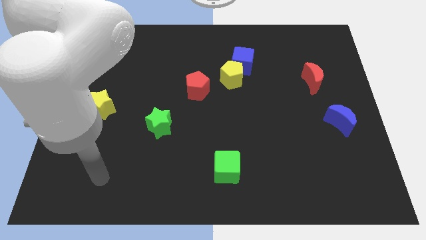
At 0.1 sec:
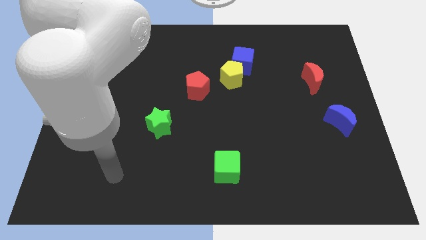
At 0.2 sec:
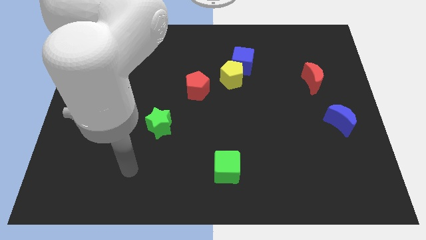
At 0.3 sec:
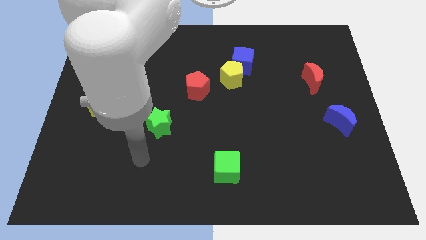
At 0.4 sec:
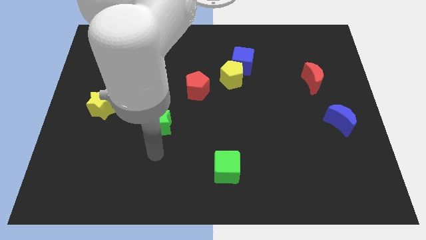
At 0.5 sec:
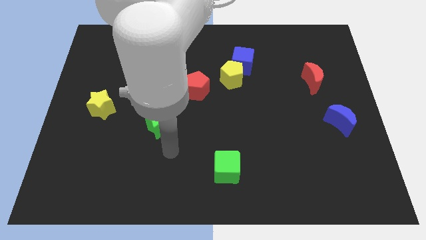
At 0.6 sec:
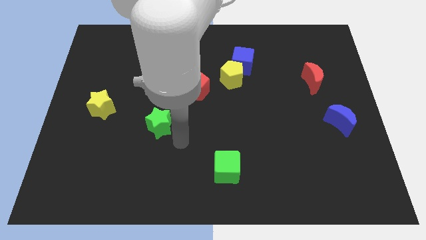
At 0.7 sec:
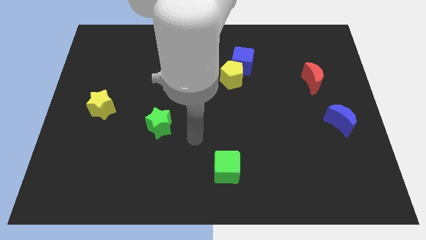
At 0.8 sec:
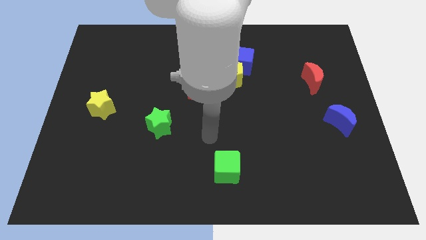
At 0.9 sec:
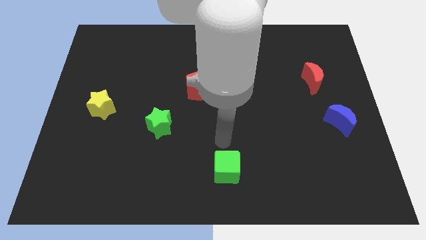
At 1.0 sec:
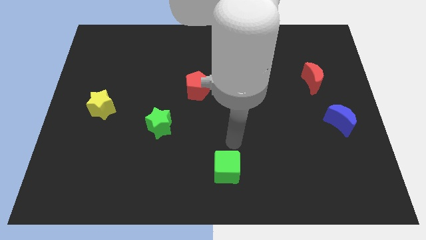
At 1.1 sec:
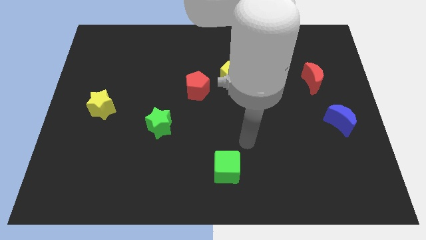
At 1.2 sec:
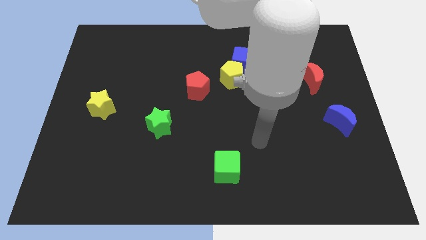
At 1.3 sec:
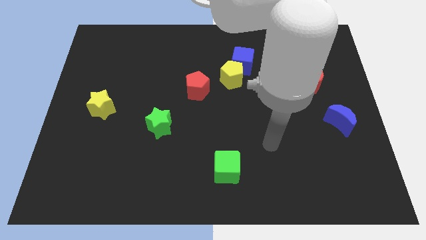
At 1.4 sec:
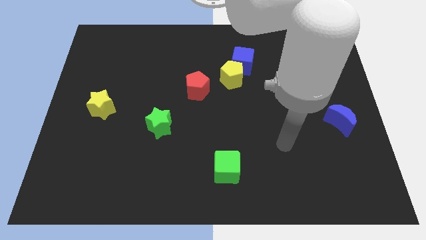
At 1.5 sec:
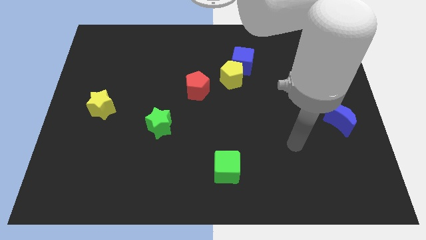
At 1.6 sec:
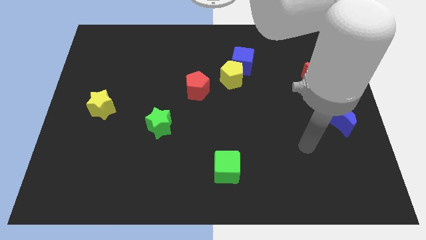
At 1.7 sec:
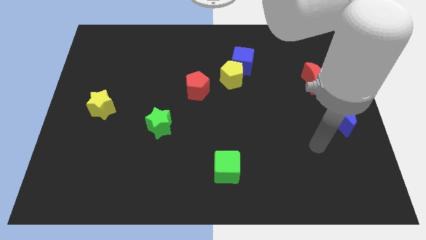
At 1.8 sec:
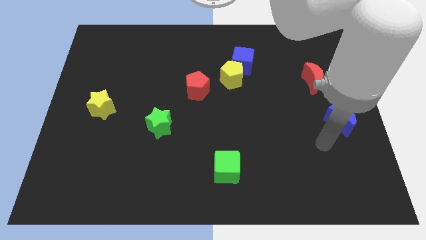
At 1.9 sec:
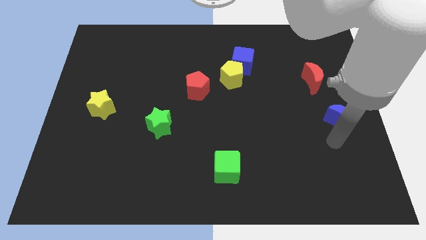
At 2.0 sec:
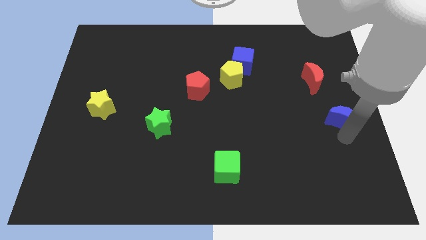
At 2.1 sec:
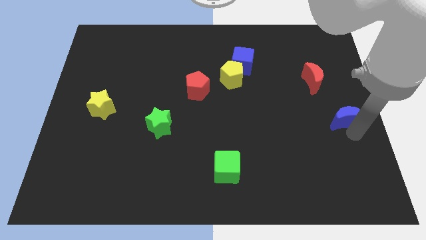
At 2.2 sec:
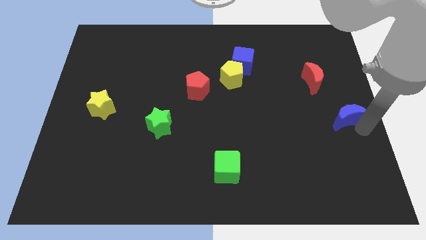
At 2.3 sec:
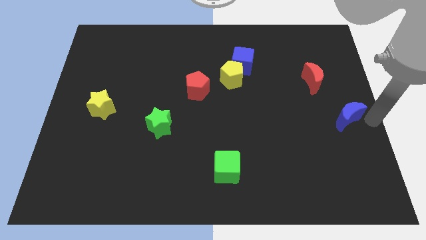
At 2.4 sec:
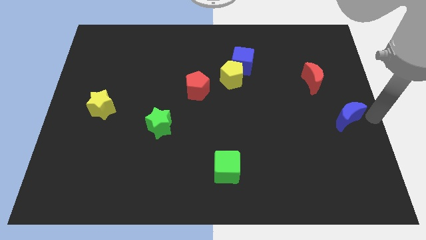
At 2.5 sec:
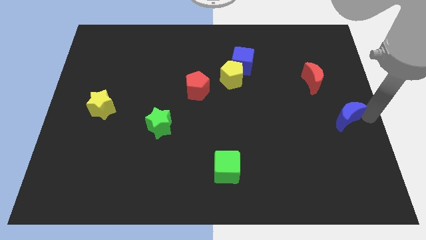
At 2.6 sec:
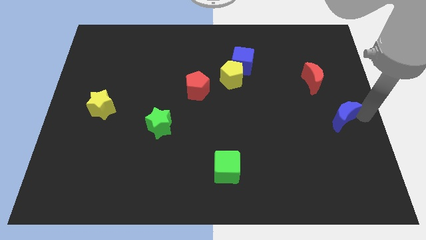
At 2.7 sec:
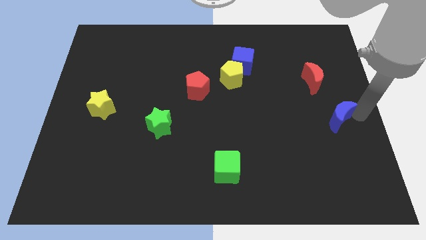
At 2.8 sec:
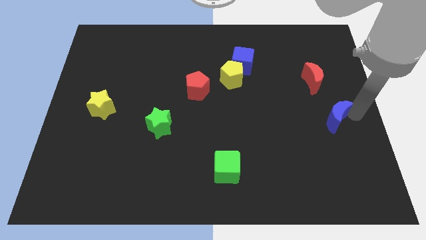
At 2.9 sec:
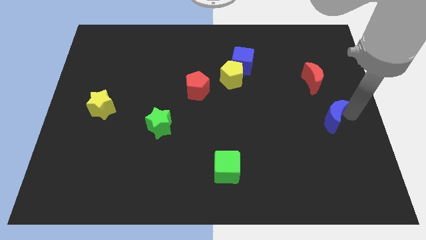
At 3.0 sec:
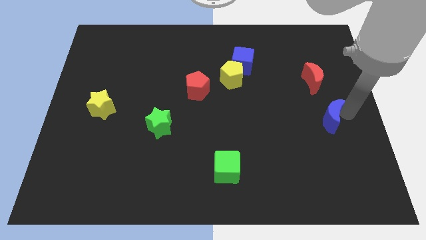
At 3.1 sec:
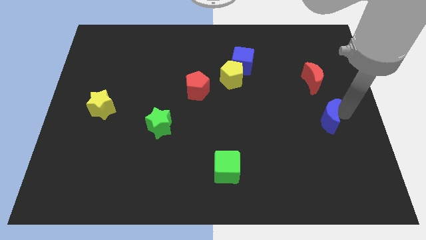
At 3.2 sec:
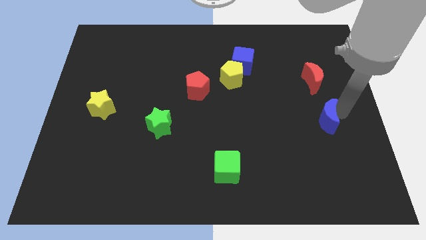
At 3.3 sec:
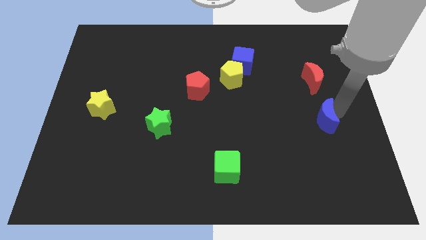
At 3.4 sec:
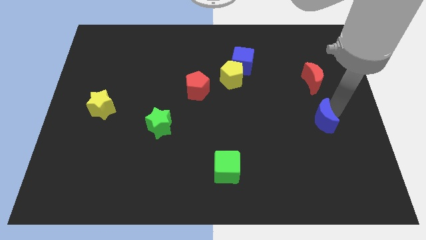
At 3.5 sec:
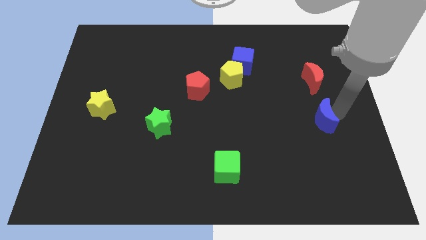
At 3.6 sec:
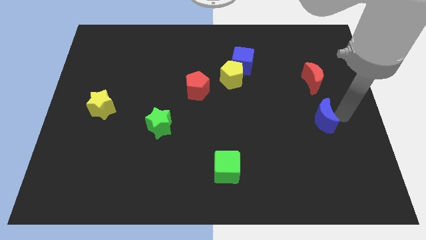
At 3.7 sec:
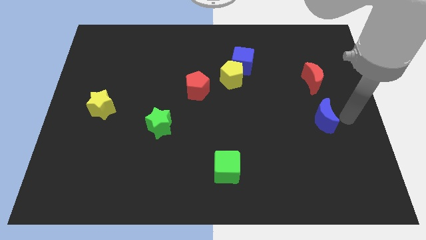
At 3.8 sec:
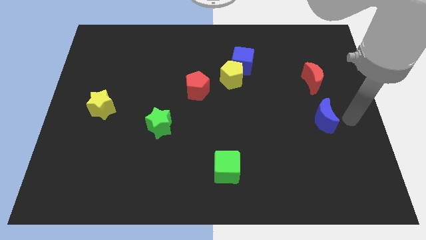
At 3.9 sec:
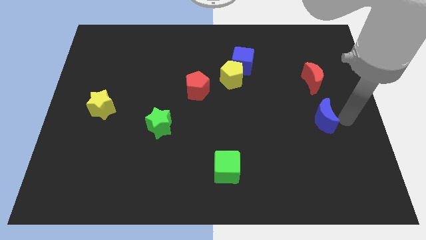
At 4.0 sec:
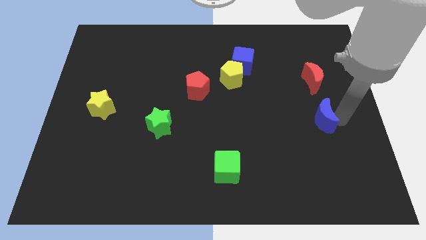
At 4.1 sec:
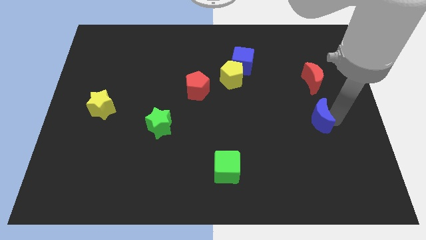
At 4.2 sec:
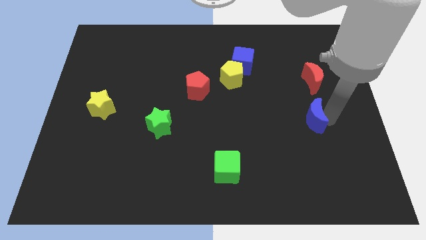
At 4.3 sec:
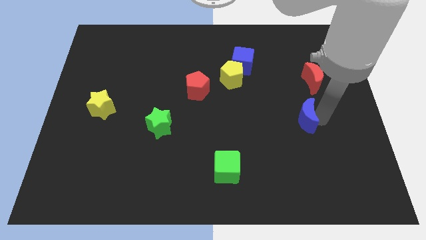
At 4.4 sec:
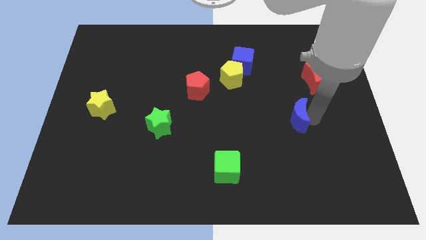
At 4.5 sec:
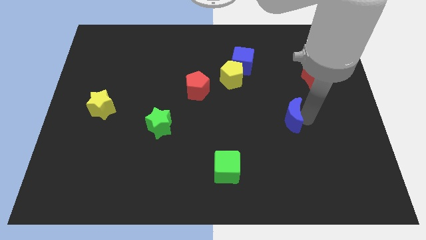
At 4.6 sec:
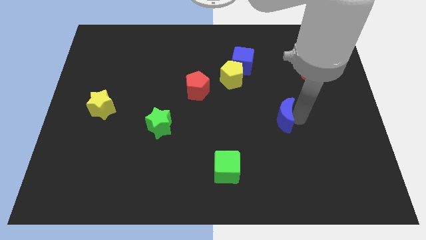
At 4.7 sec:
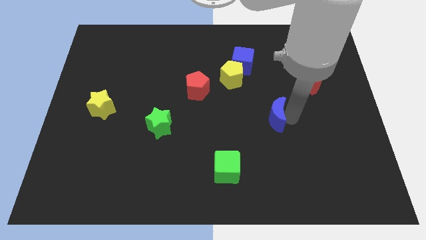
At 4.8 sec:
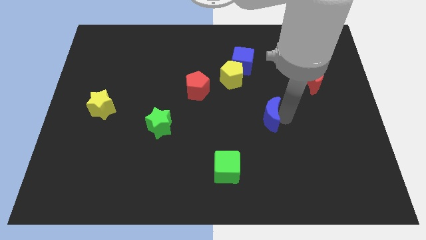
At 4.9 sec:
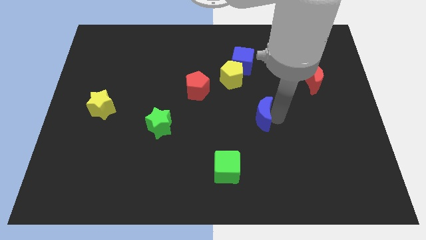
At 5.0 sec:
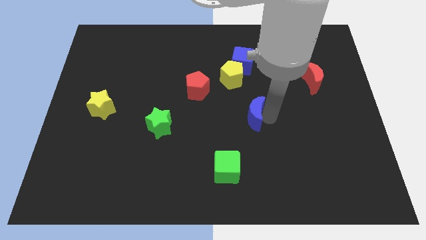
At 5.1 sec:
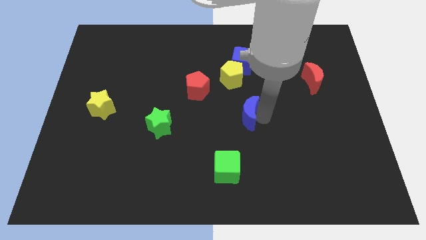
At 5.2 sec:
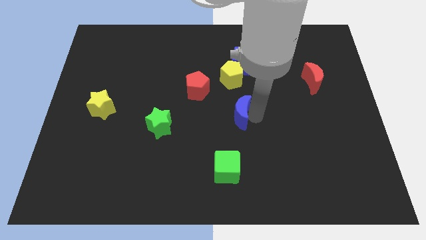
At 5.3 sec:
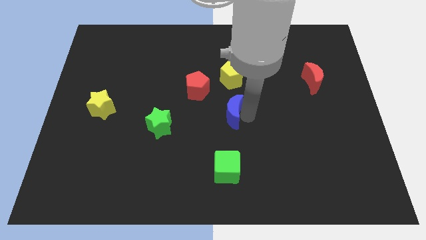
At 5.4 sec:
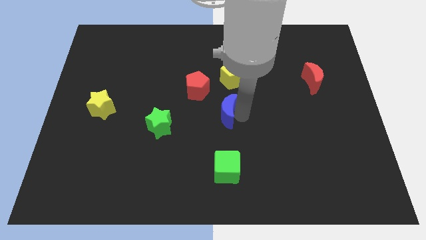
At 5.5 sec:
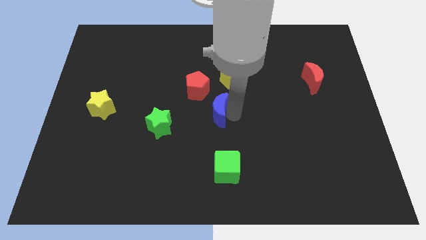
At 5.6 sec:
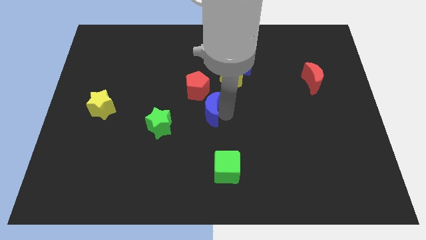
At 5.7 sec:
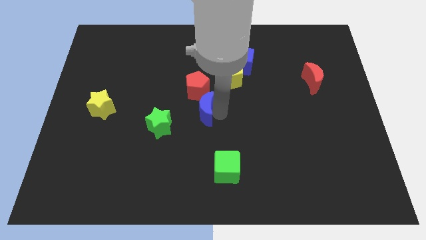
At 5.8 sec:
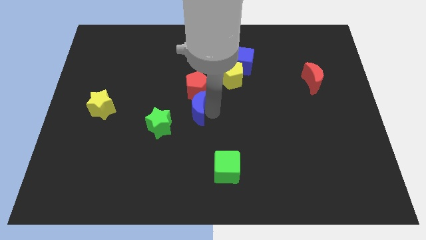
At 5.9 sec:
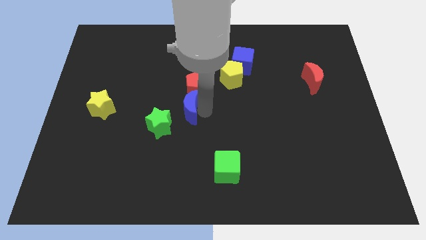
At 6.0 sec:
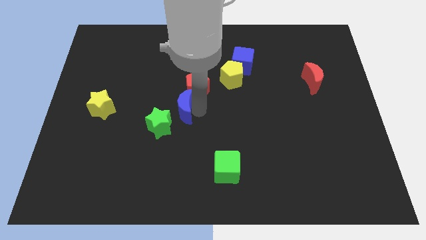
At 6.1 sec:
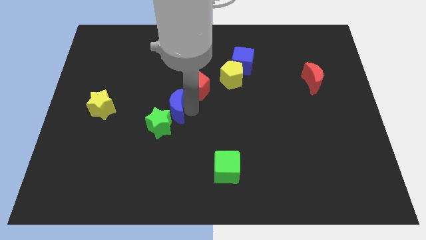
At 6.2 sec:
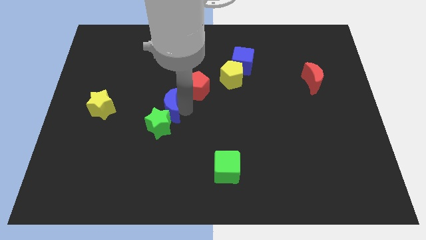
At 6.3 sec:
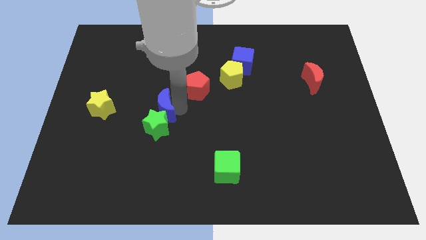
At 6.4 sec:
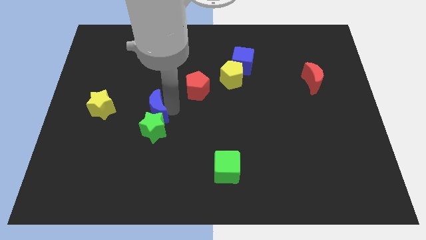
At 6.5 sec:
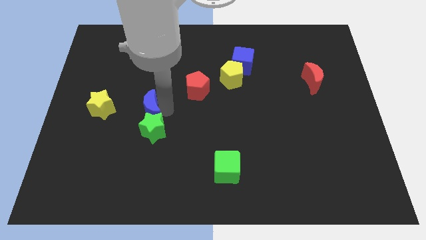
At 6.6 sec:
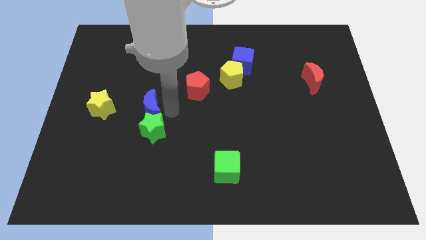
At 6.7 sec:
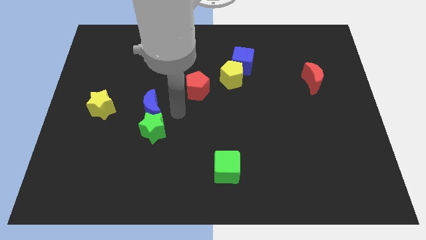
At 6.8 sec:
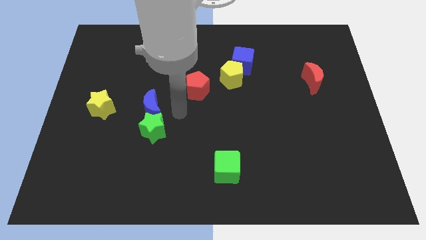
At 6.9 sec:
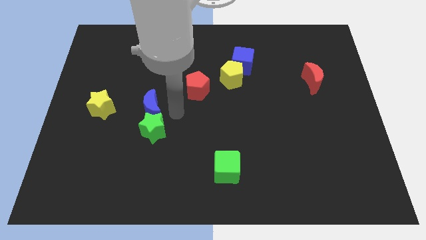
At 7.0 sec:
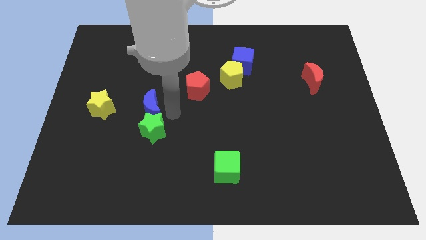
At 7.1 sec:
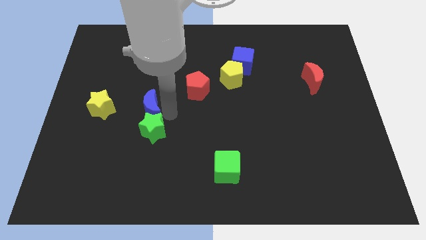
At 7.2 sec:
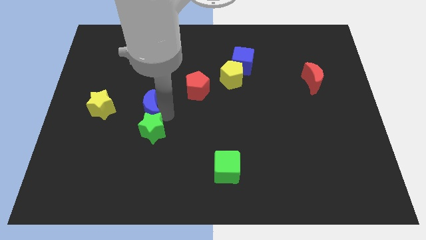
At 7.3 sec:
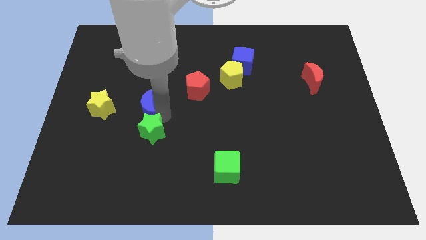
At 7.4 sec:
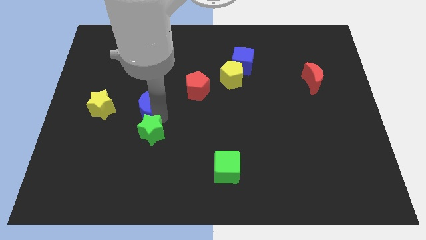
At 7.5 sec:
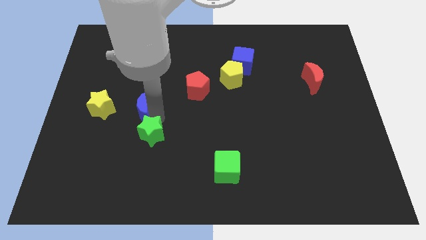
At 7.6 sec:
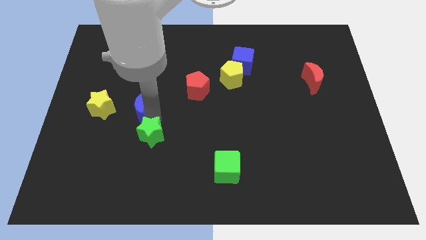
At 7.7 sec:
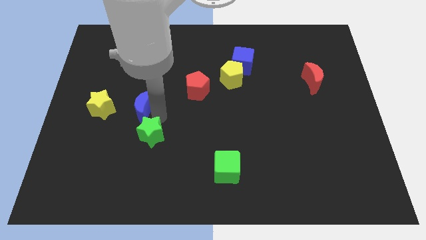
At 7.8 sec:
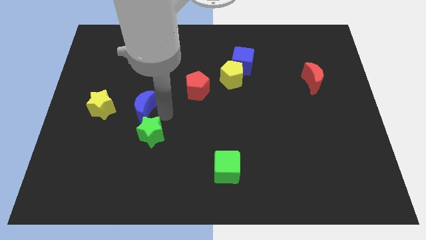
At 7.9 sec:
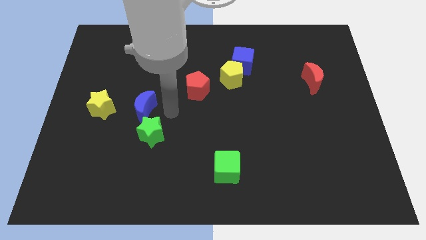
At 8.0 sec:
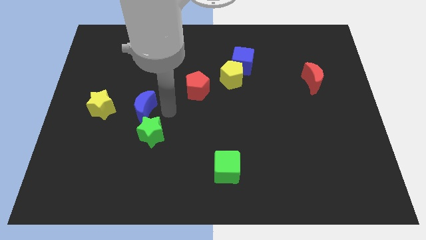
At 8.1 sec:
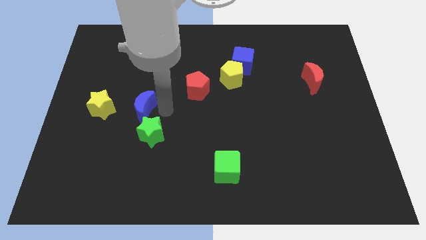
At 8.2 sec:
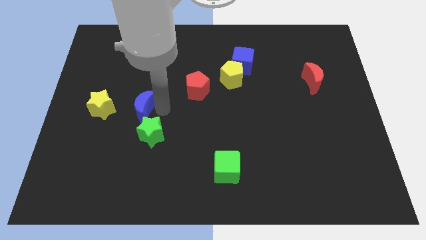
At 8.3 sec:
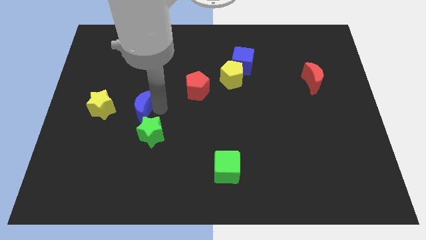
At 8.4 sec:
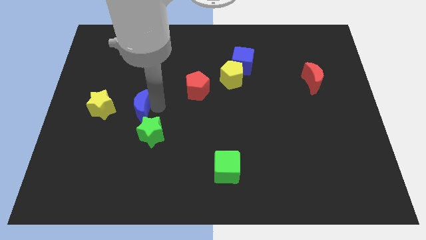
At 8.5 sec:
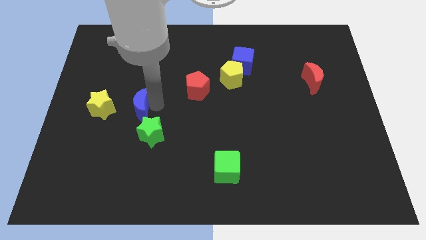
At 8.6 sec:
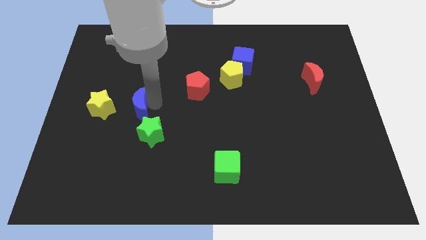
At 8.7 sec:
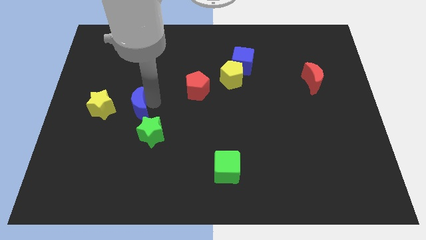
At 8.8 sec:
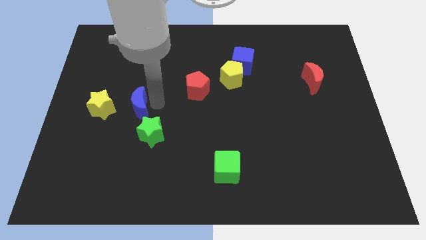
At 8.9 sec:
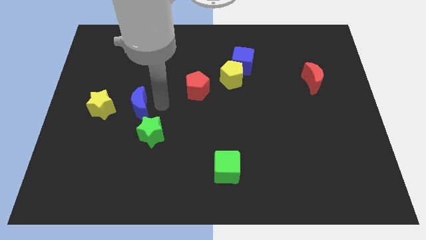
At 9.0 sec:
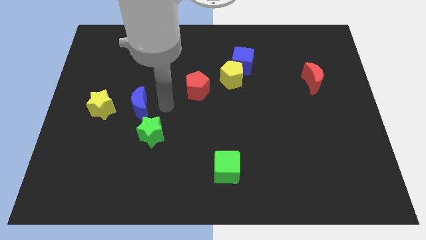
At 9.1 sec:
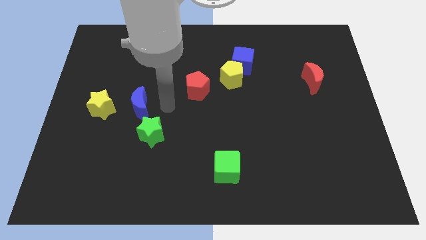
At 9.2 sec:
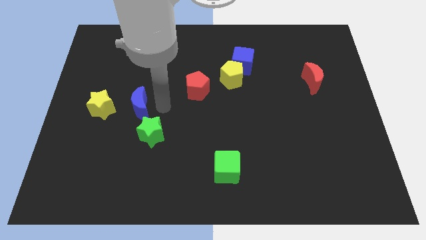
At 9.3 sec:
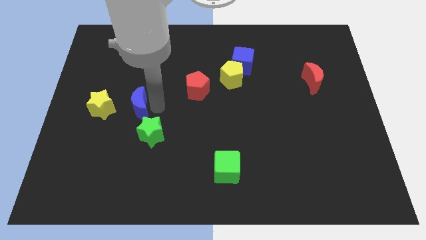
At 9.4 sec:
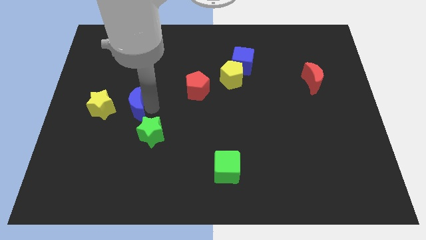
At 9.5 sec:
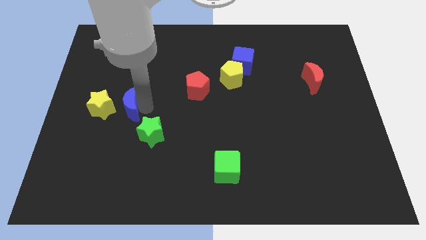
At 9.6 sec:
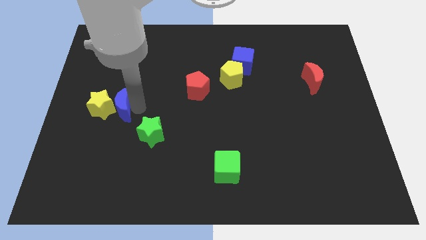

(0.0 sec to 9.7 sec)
push the blue moon towards the yellow star
